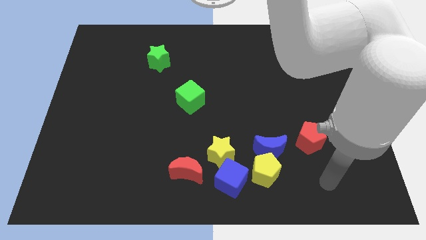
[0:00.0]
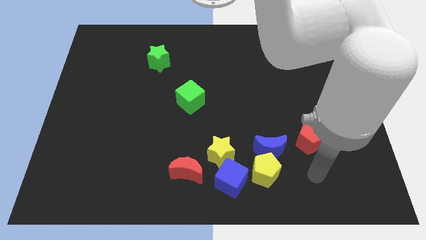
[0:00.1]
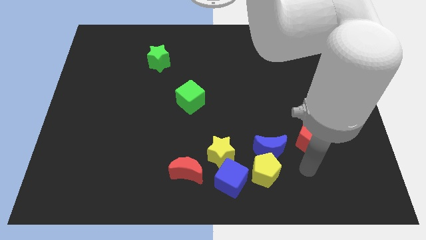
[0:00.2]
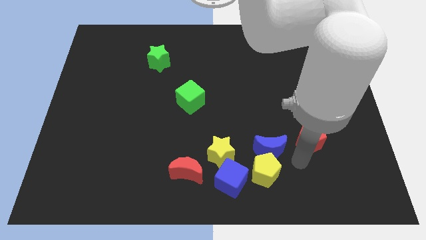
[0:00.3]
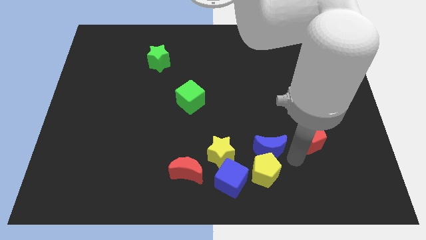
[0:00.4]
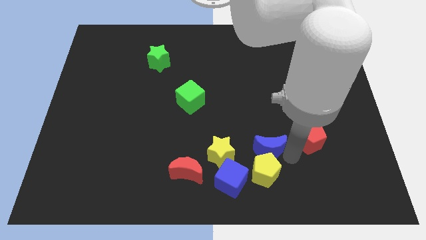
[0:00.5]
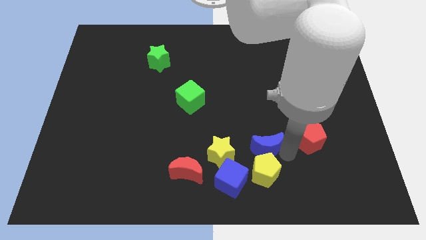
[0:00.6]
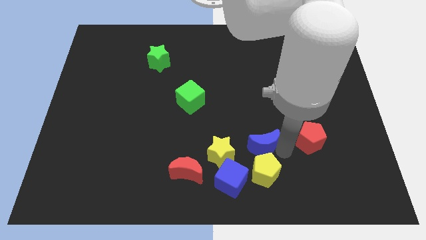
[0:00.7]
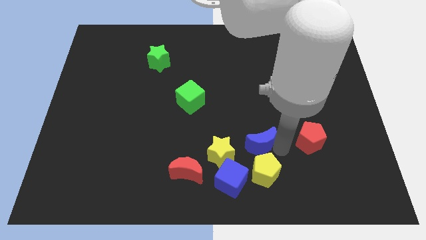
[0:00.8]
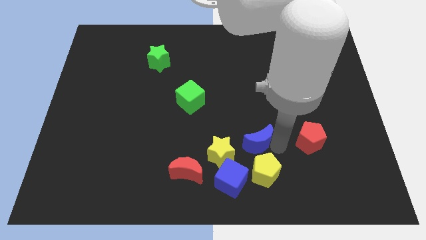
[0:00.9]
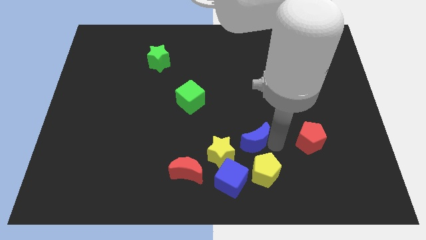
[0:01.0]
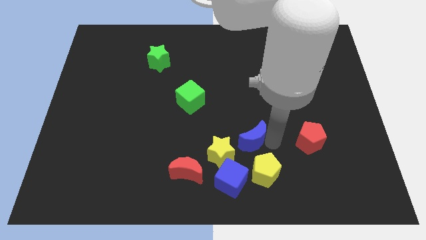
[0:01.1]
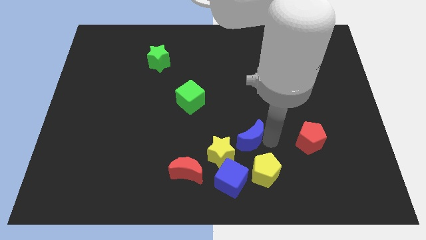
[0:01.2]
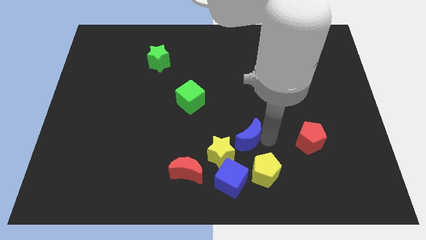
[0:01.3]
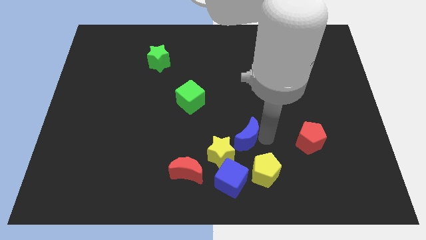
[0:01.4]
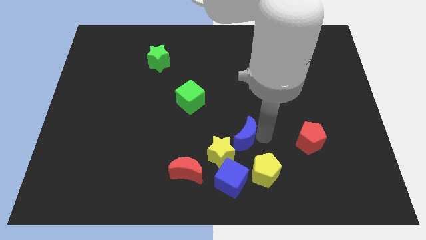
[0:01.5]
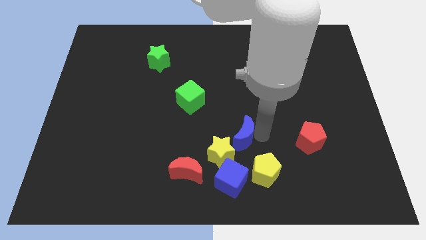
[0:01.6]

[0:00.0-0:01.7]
pull the blue moon apart from the yellow pentagon and red pentagon

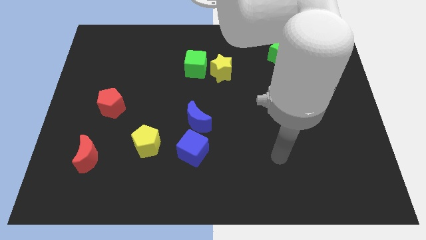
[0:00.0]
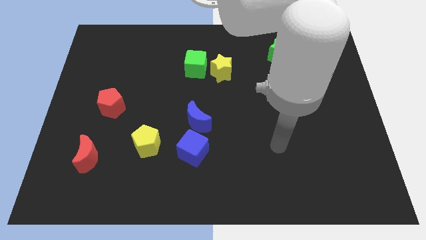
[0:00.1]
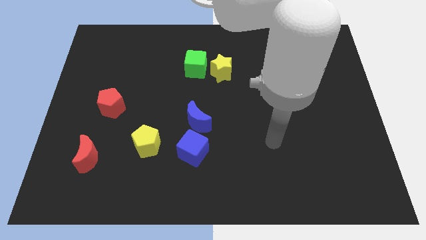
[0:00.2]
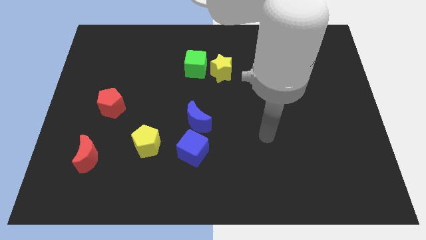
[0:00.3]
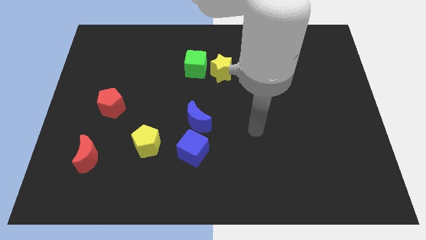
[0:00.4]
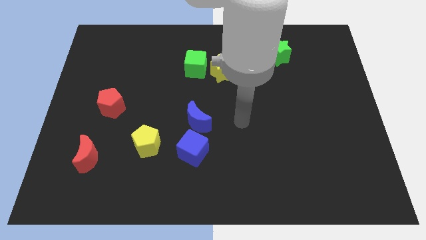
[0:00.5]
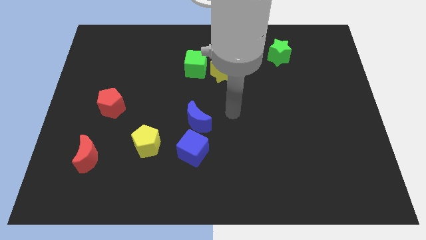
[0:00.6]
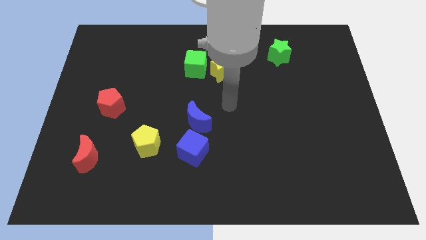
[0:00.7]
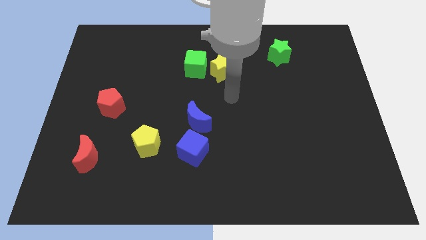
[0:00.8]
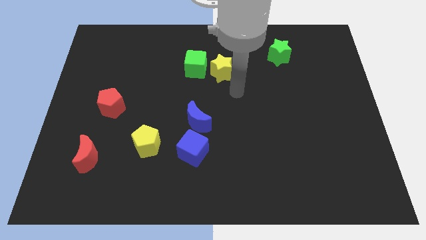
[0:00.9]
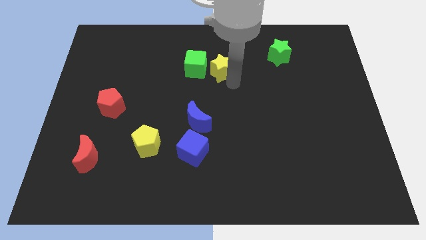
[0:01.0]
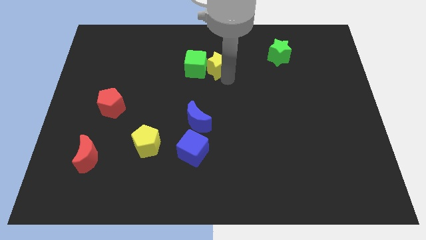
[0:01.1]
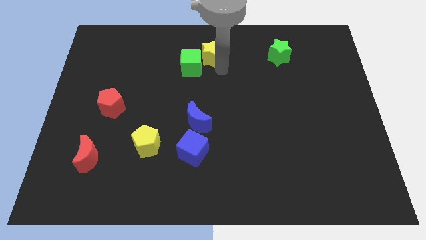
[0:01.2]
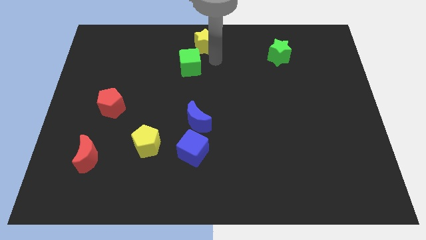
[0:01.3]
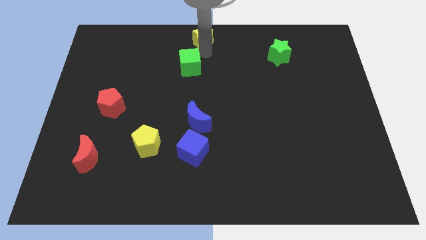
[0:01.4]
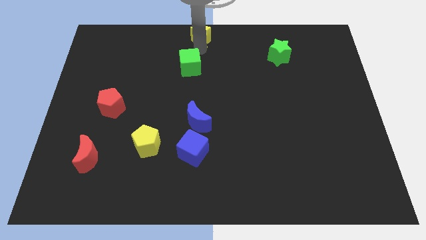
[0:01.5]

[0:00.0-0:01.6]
separate the green cube from the yellow star

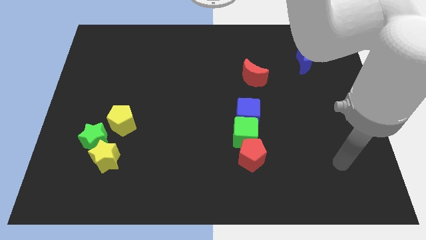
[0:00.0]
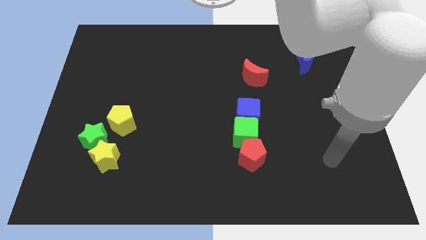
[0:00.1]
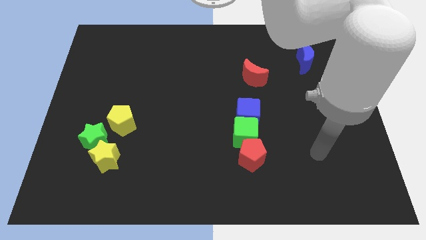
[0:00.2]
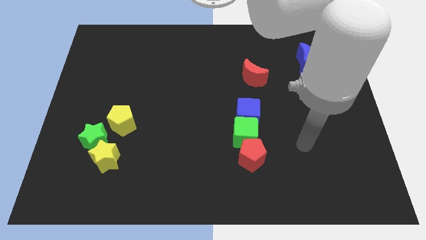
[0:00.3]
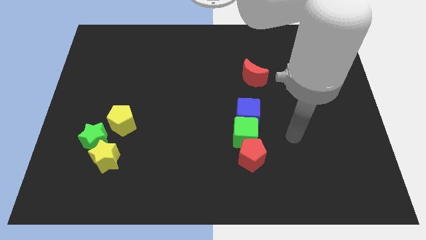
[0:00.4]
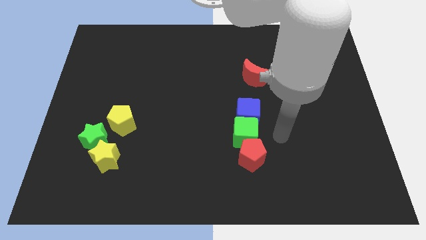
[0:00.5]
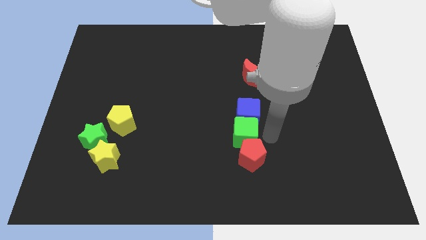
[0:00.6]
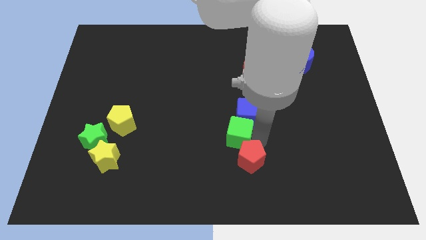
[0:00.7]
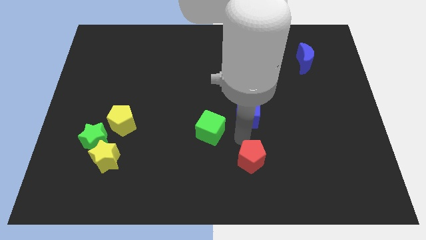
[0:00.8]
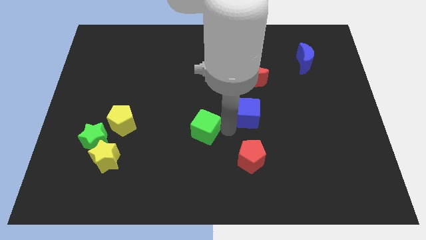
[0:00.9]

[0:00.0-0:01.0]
pull the blue cube apart from the green cube

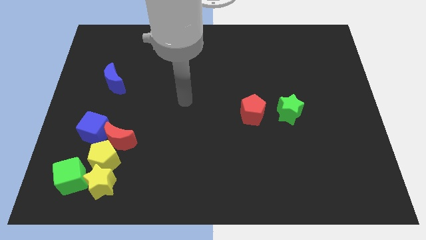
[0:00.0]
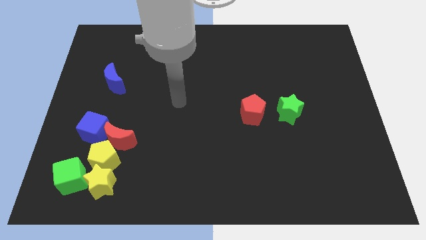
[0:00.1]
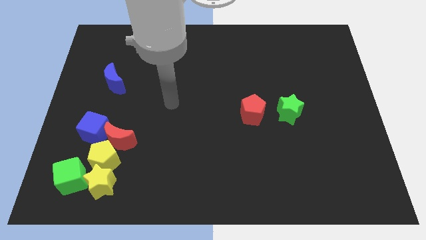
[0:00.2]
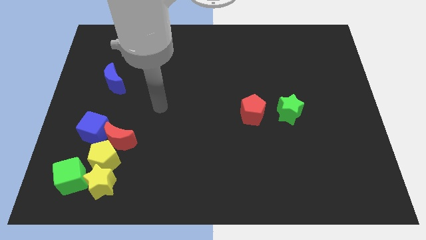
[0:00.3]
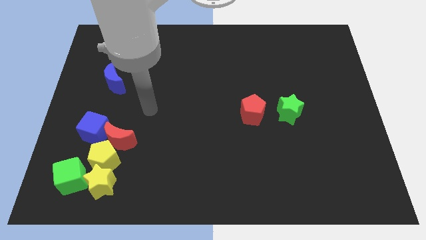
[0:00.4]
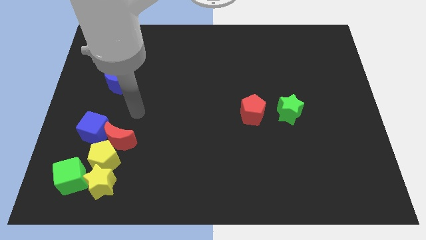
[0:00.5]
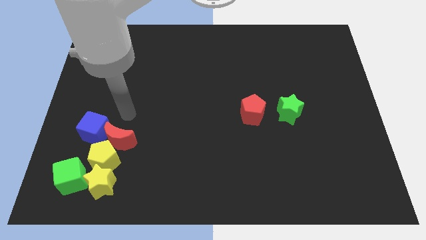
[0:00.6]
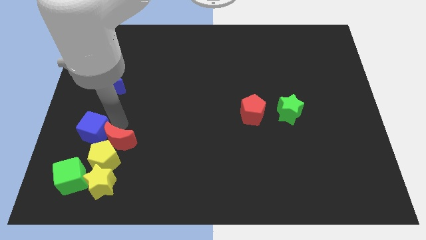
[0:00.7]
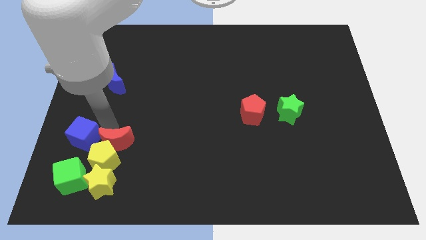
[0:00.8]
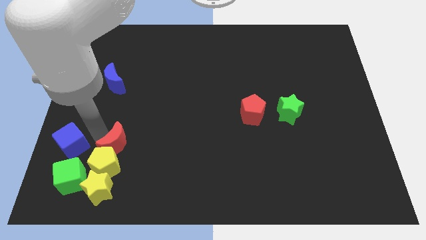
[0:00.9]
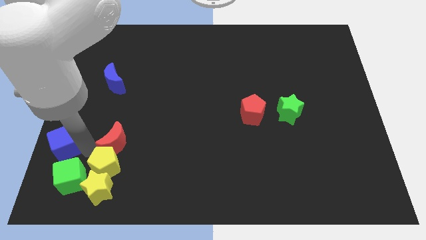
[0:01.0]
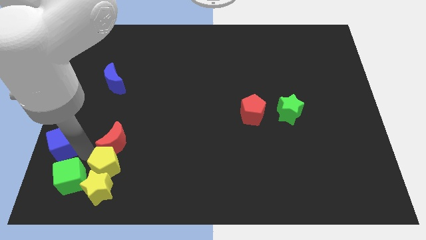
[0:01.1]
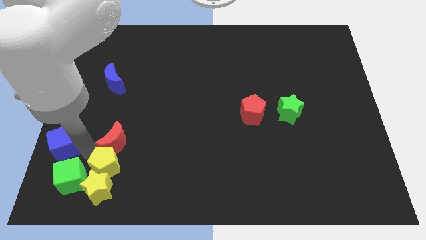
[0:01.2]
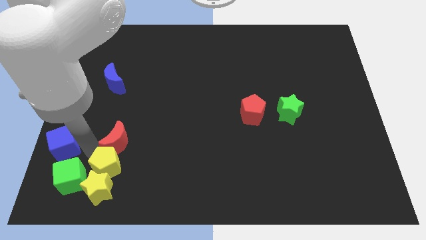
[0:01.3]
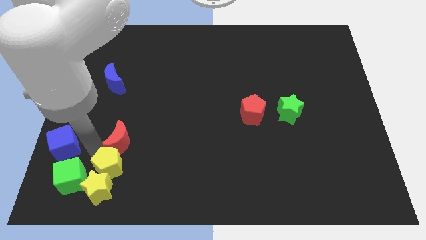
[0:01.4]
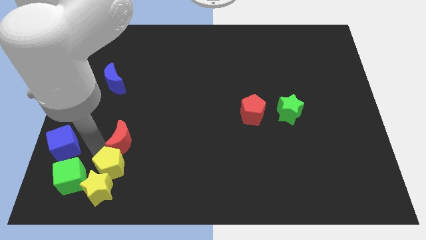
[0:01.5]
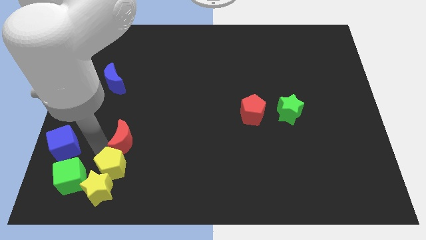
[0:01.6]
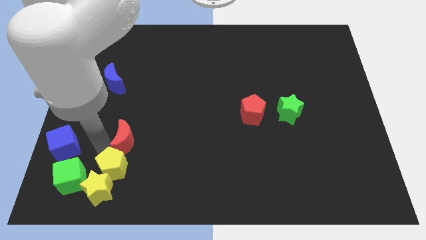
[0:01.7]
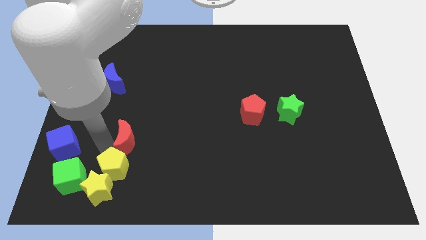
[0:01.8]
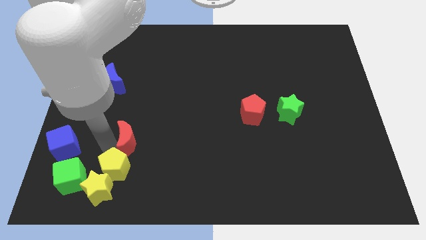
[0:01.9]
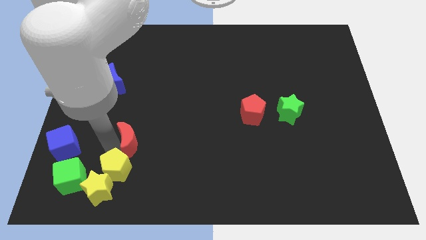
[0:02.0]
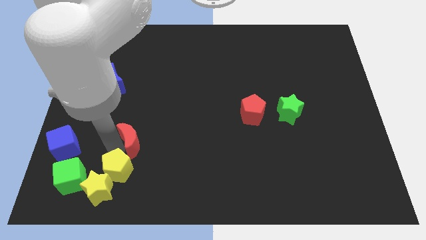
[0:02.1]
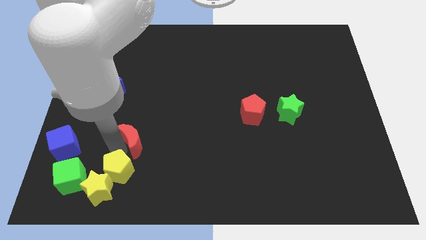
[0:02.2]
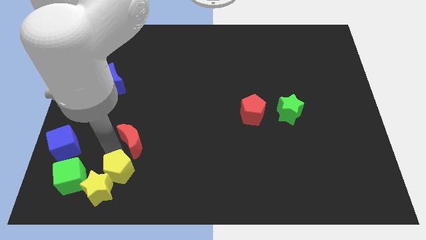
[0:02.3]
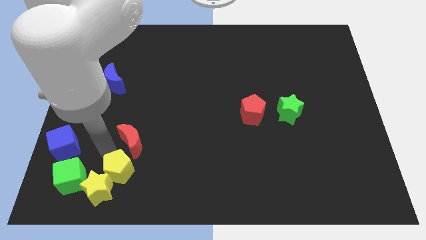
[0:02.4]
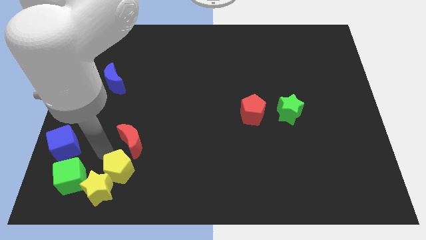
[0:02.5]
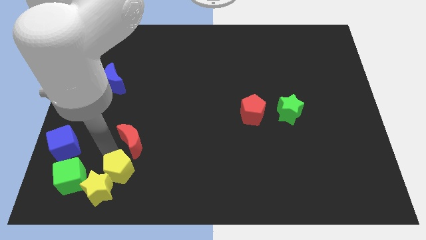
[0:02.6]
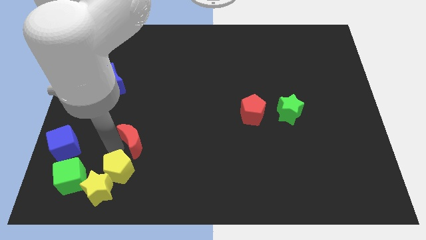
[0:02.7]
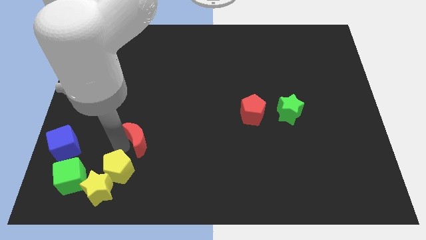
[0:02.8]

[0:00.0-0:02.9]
separate the red moon from the yellow pentagon and blue cube

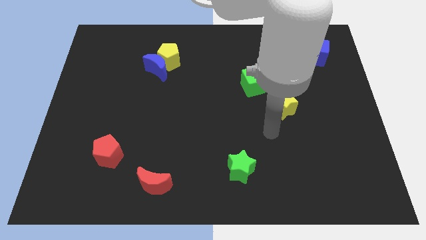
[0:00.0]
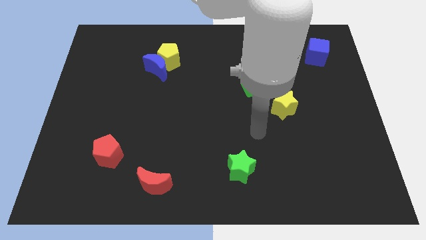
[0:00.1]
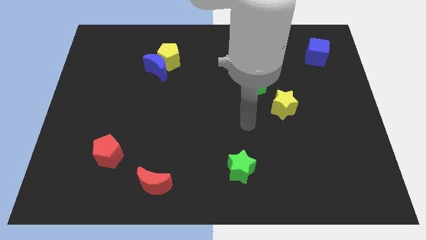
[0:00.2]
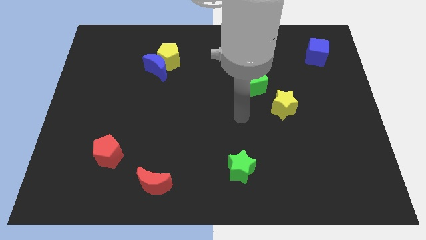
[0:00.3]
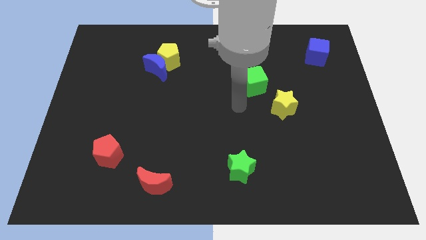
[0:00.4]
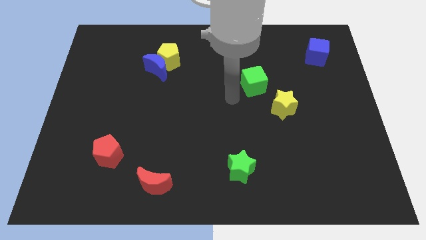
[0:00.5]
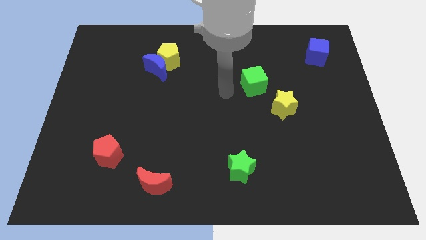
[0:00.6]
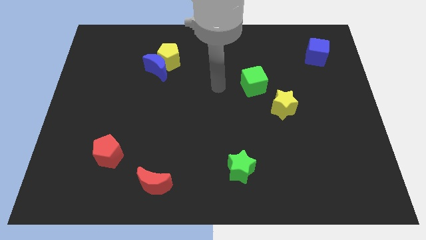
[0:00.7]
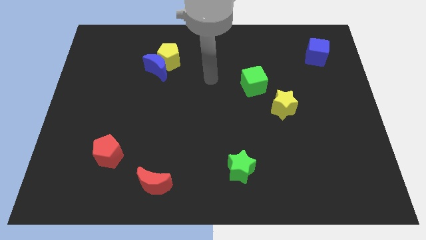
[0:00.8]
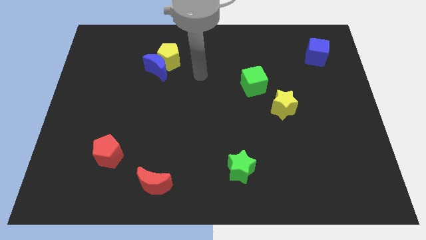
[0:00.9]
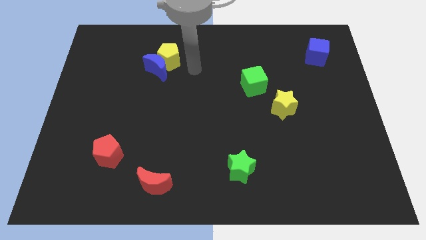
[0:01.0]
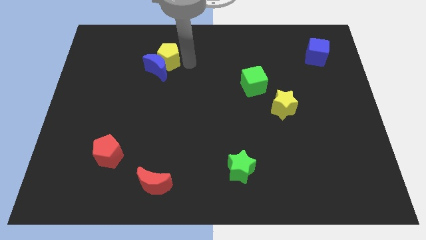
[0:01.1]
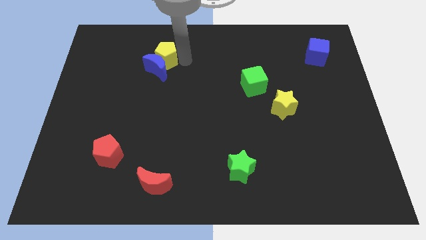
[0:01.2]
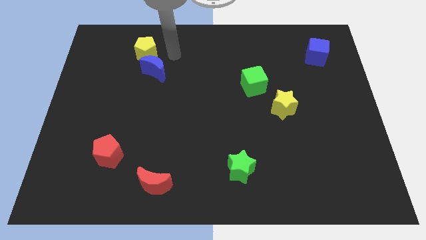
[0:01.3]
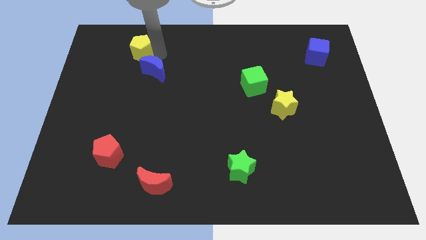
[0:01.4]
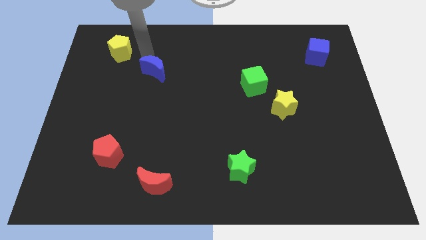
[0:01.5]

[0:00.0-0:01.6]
separate the blue moon from the yellow pentagon

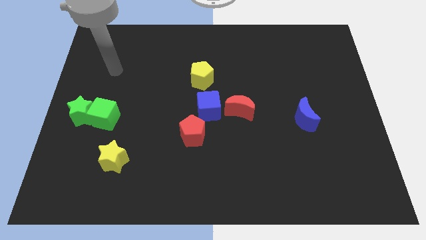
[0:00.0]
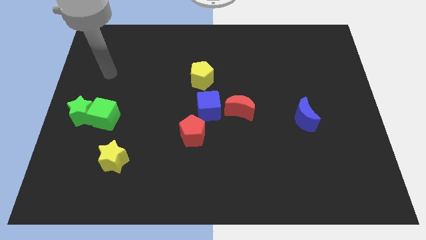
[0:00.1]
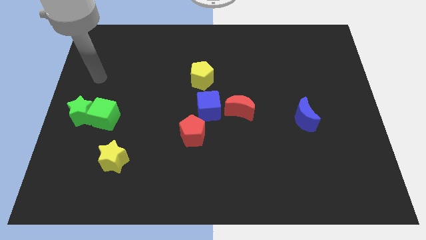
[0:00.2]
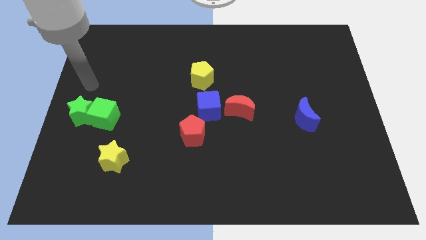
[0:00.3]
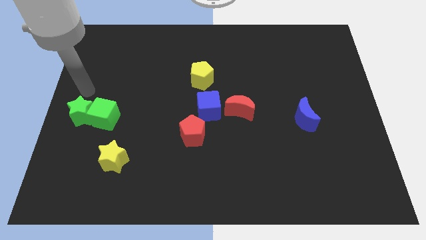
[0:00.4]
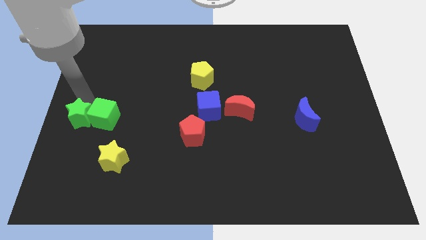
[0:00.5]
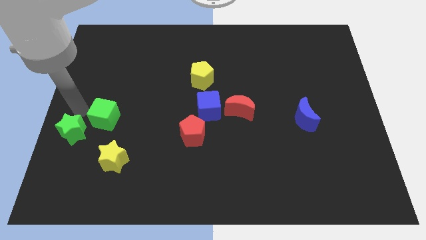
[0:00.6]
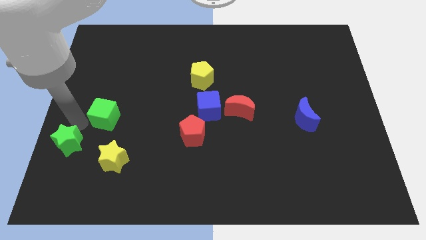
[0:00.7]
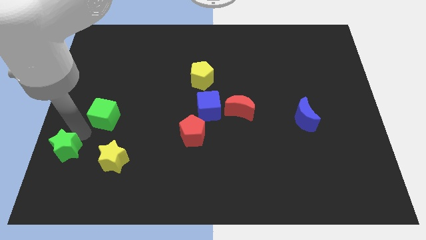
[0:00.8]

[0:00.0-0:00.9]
separate the green cube from the green star
